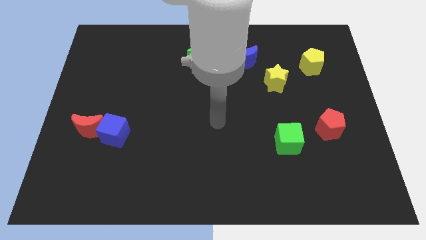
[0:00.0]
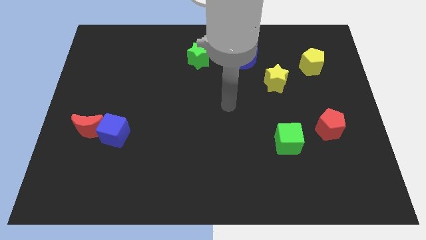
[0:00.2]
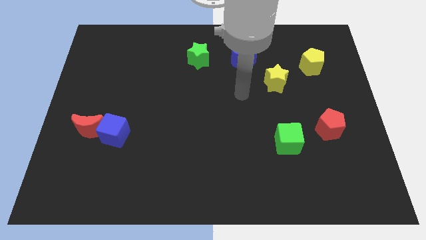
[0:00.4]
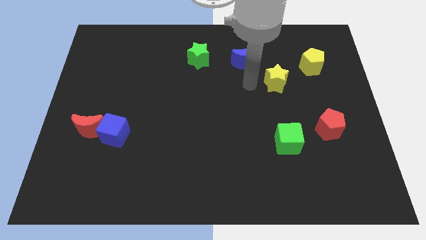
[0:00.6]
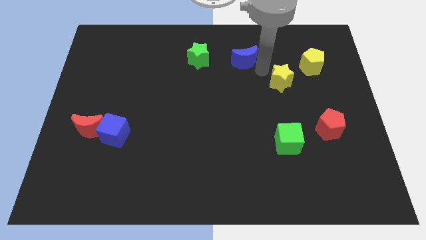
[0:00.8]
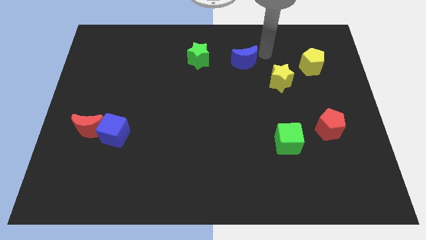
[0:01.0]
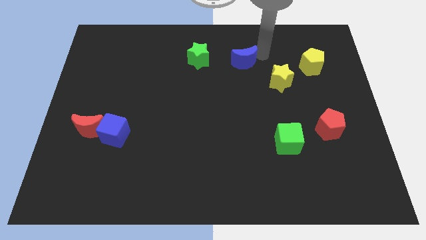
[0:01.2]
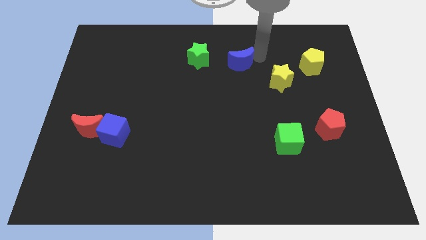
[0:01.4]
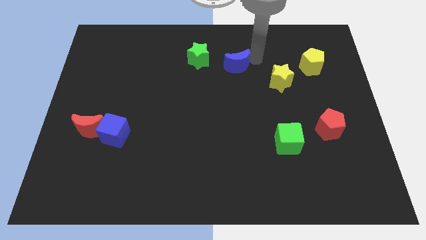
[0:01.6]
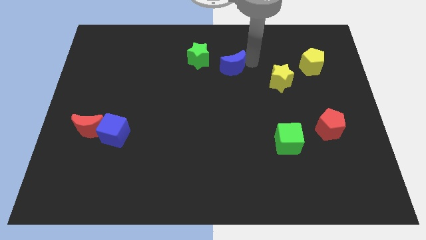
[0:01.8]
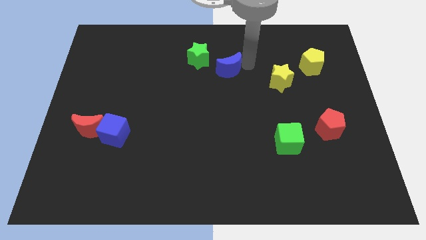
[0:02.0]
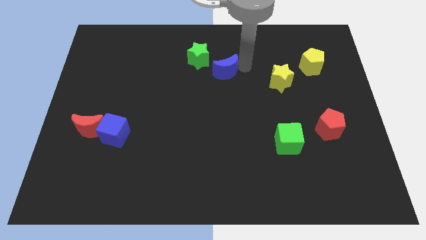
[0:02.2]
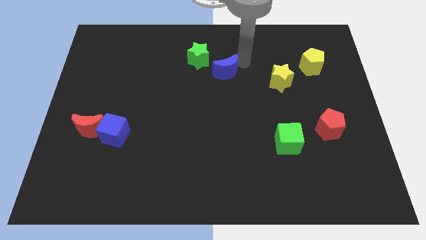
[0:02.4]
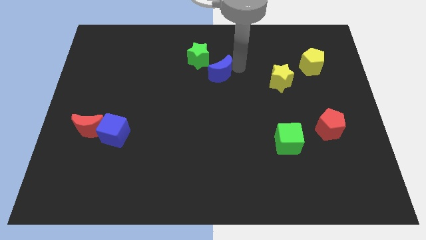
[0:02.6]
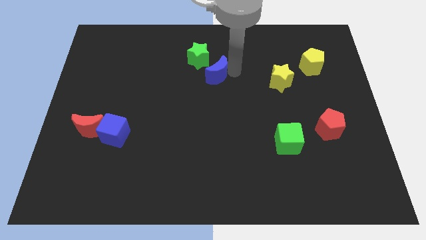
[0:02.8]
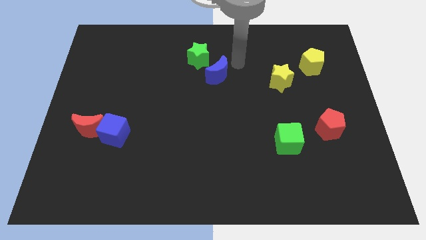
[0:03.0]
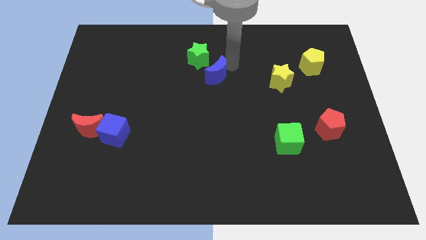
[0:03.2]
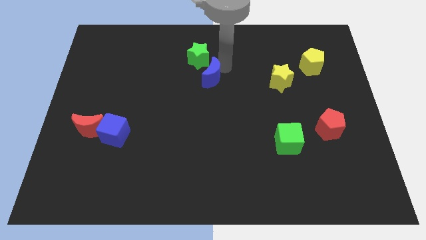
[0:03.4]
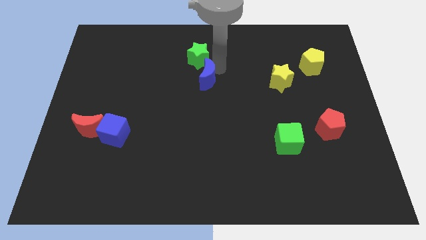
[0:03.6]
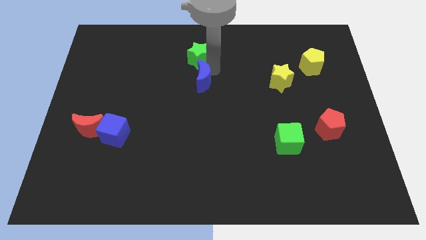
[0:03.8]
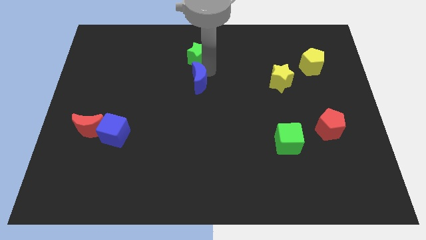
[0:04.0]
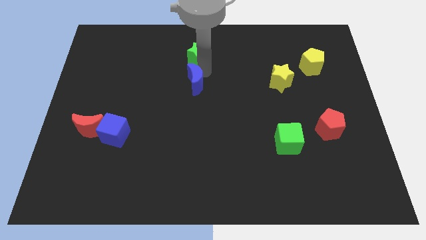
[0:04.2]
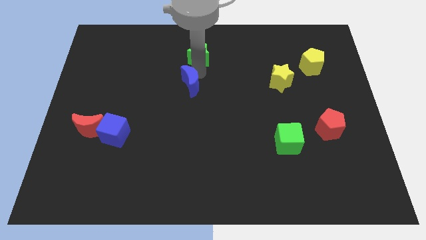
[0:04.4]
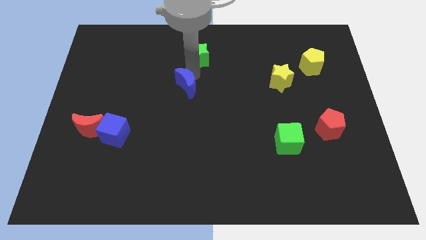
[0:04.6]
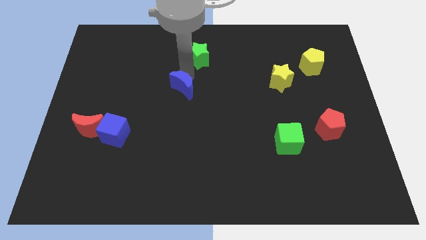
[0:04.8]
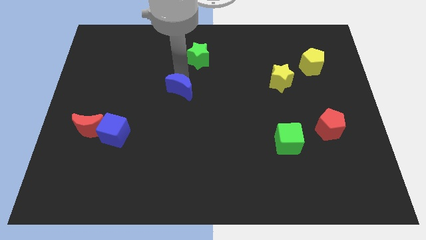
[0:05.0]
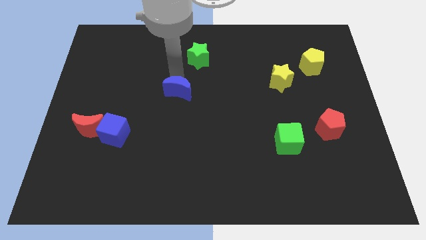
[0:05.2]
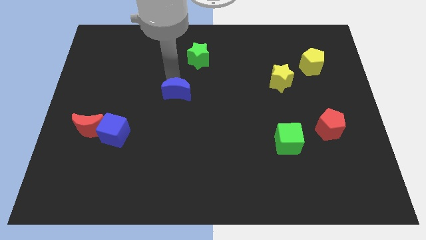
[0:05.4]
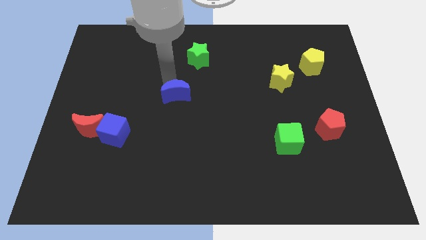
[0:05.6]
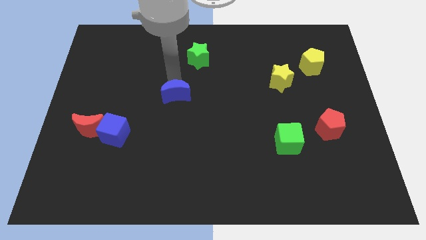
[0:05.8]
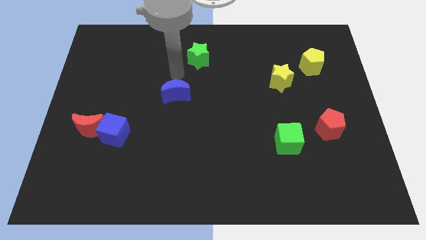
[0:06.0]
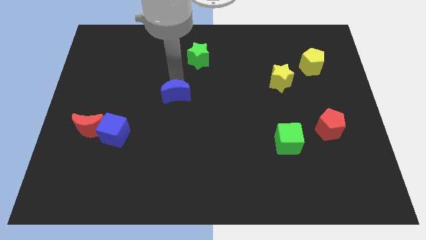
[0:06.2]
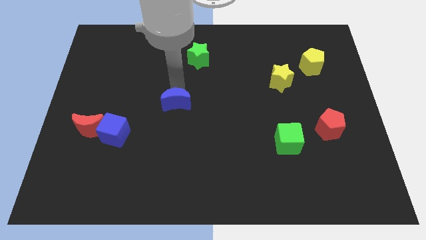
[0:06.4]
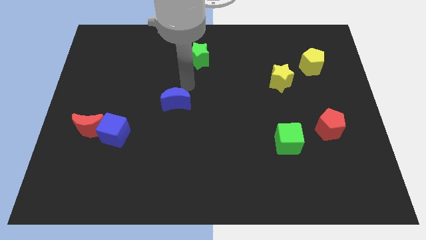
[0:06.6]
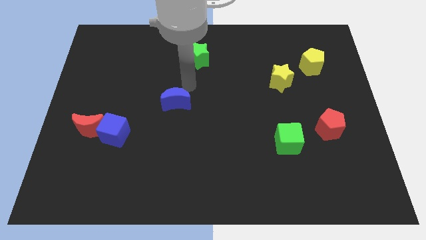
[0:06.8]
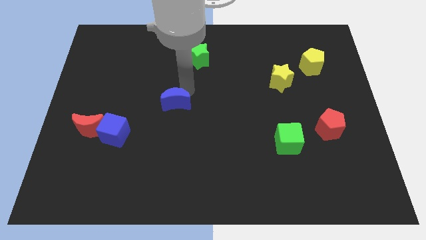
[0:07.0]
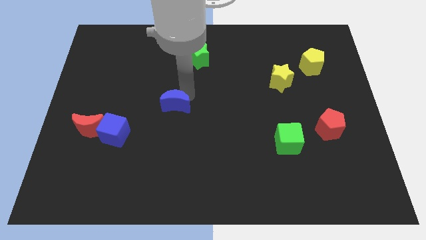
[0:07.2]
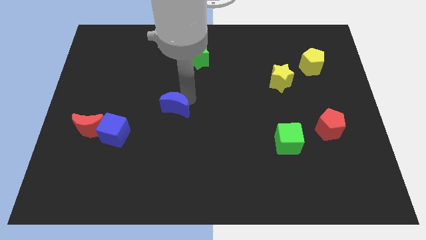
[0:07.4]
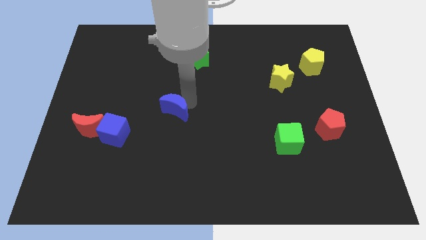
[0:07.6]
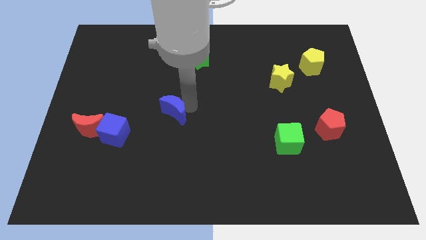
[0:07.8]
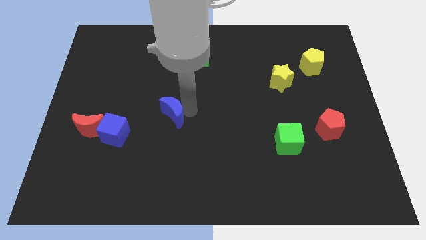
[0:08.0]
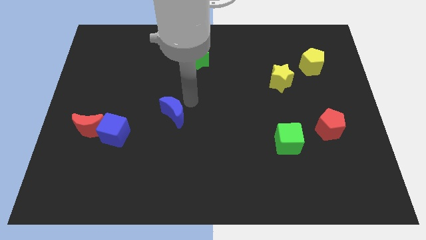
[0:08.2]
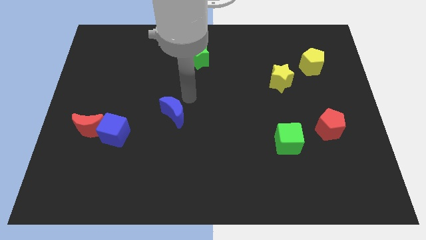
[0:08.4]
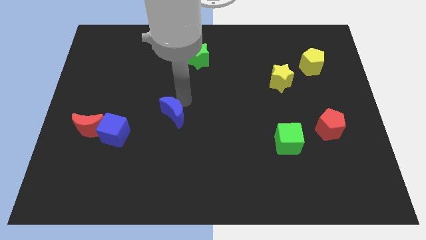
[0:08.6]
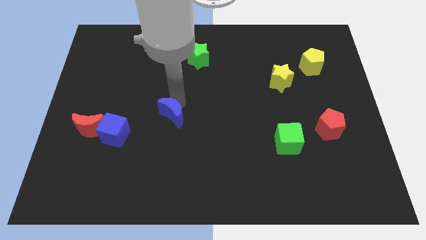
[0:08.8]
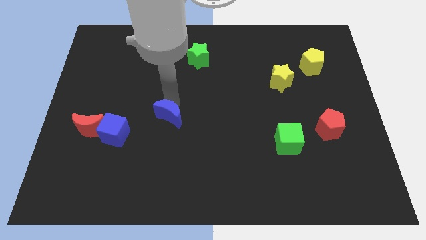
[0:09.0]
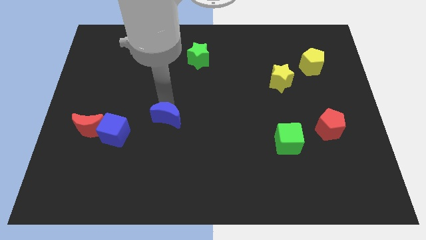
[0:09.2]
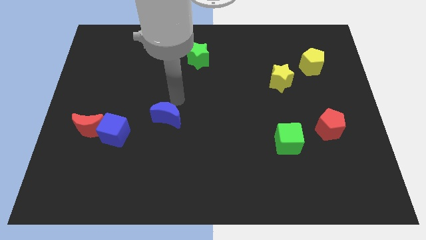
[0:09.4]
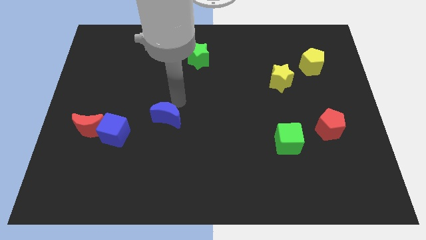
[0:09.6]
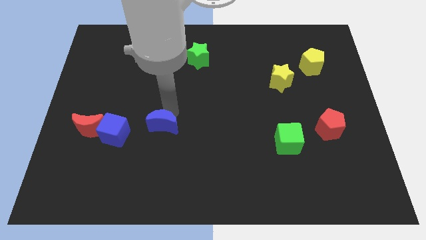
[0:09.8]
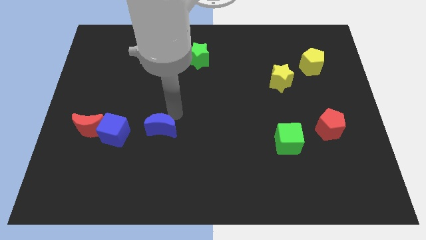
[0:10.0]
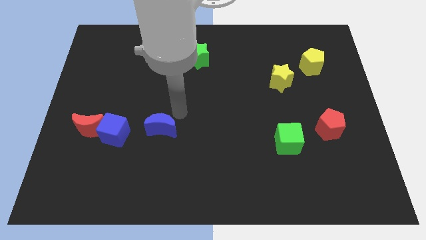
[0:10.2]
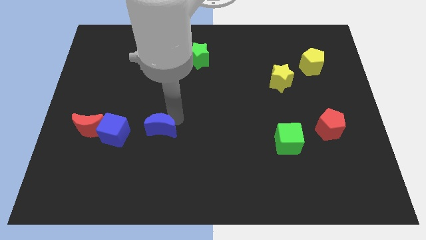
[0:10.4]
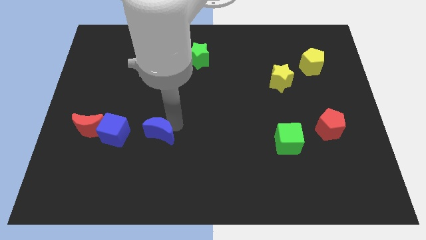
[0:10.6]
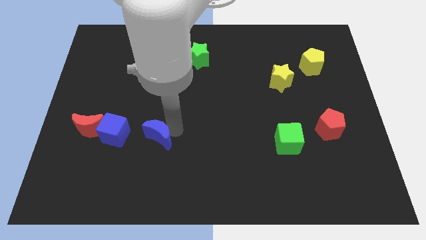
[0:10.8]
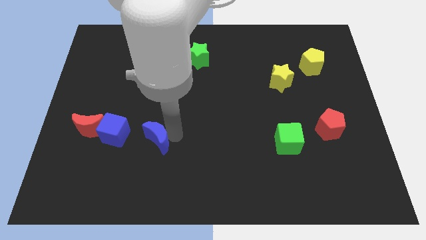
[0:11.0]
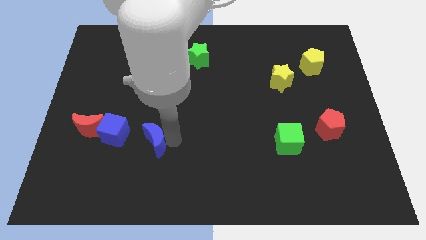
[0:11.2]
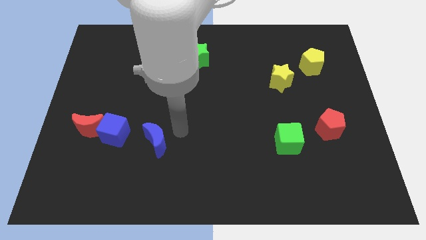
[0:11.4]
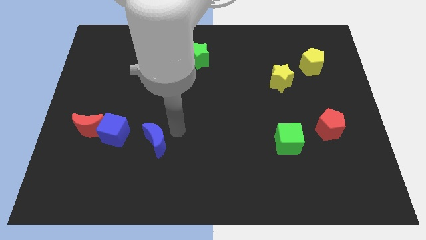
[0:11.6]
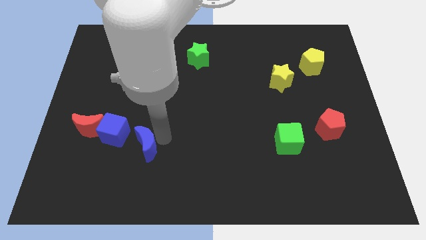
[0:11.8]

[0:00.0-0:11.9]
put the blue moon to the bottom right side of the blue cube

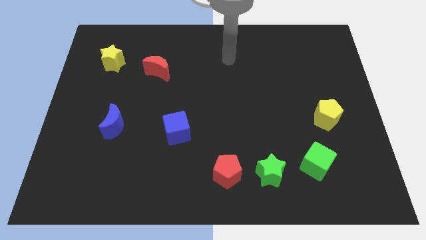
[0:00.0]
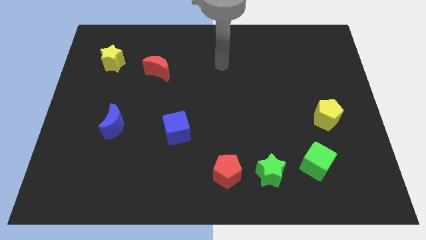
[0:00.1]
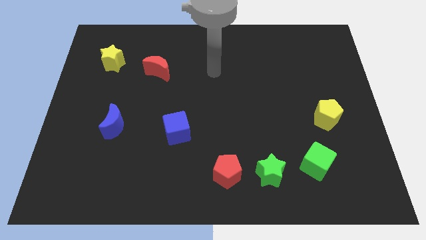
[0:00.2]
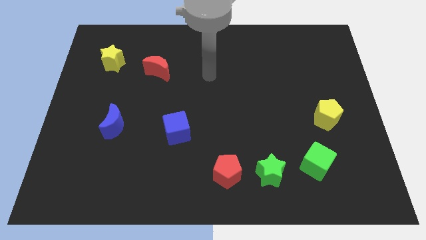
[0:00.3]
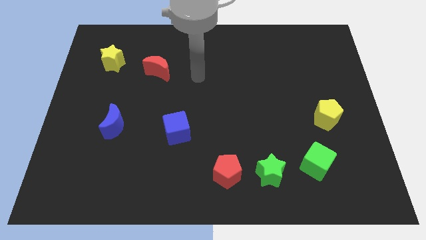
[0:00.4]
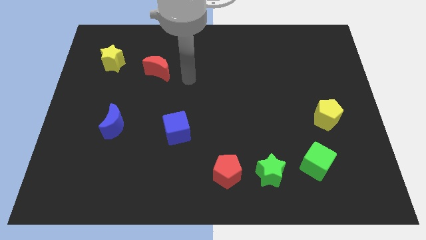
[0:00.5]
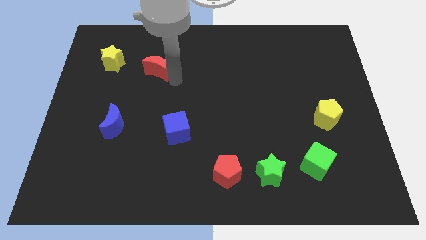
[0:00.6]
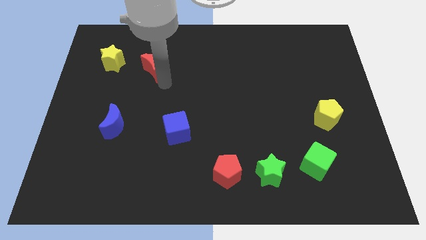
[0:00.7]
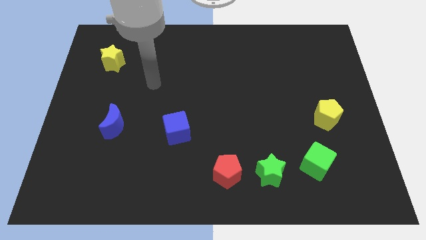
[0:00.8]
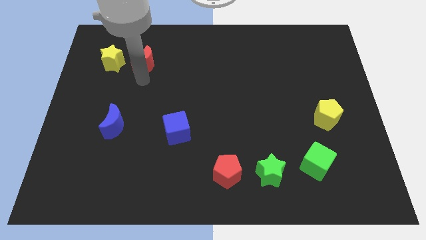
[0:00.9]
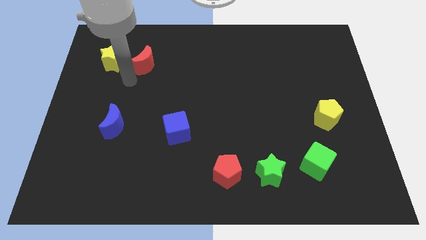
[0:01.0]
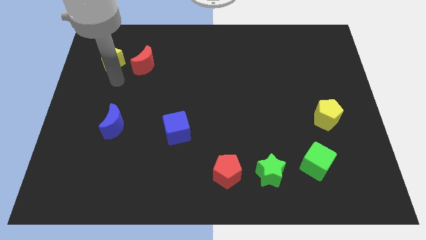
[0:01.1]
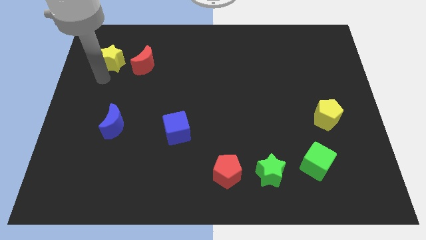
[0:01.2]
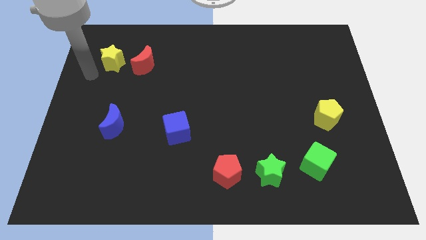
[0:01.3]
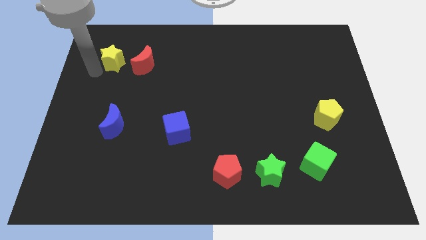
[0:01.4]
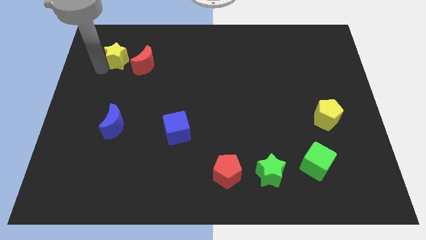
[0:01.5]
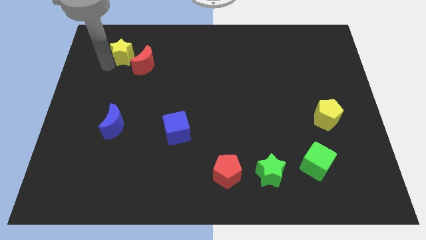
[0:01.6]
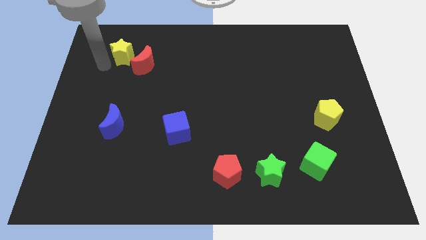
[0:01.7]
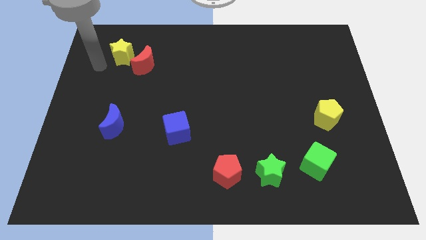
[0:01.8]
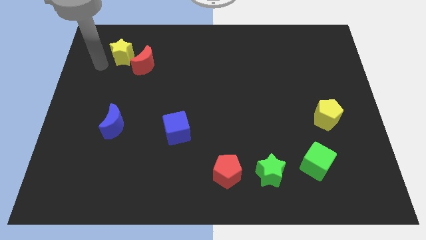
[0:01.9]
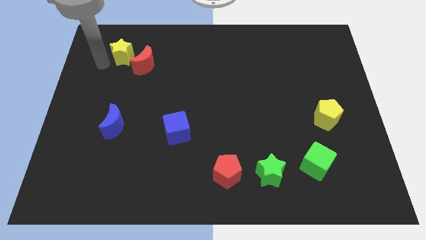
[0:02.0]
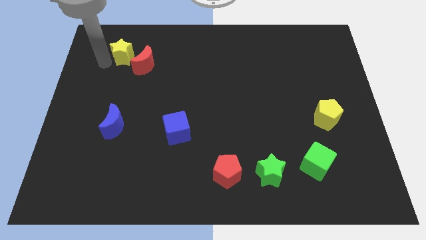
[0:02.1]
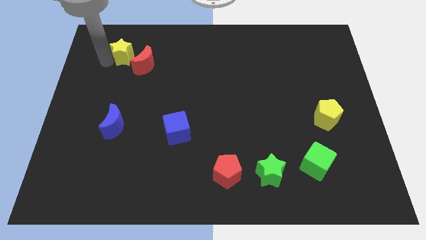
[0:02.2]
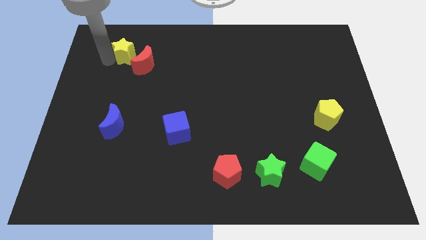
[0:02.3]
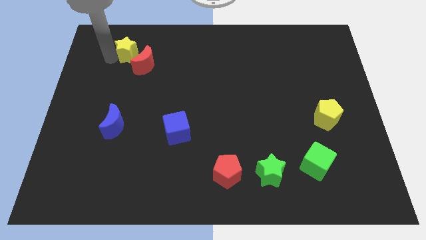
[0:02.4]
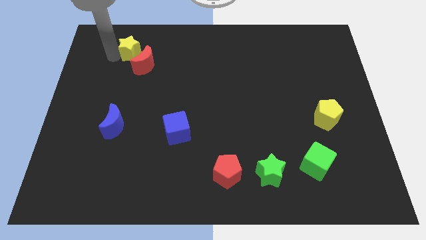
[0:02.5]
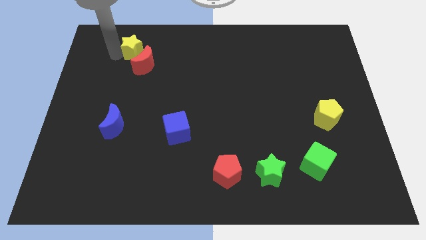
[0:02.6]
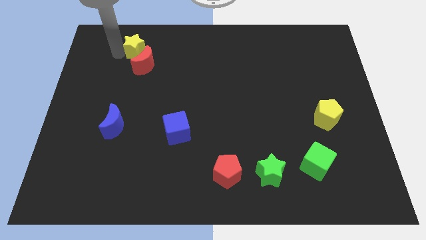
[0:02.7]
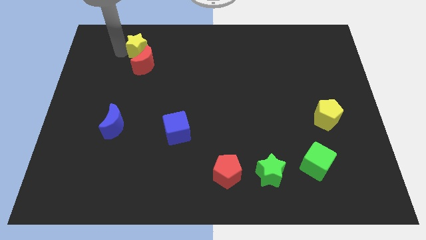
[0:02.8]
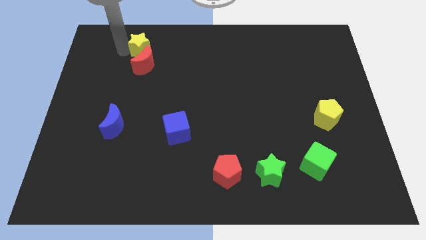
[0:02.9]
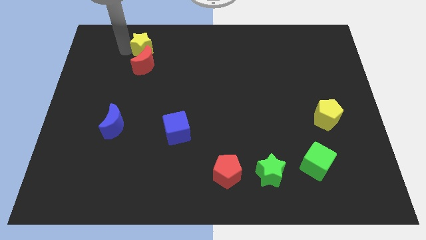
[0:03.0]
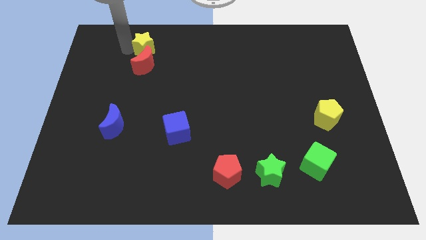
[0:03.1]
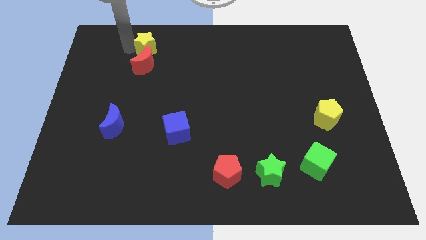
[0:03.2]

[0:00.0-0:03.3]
push the yellow star to the top right of the red moon
